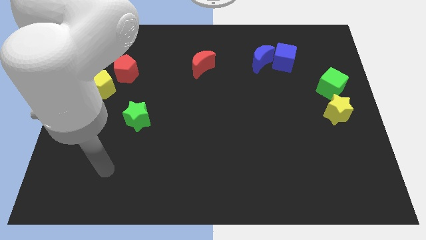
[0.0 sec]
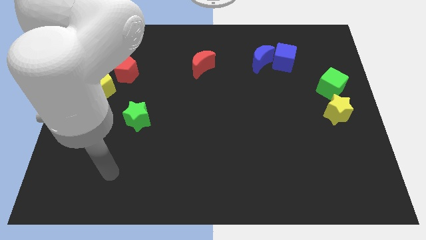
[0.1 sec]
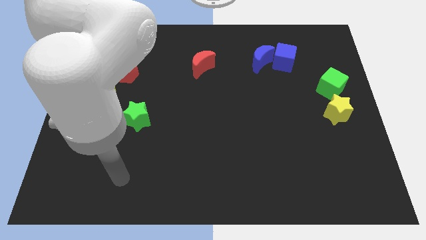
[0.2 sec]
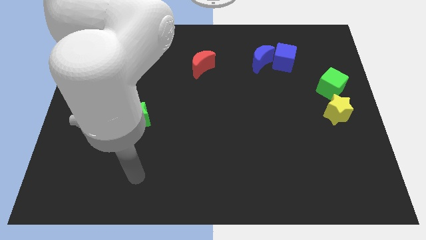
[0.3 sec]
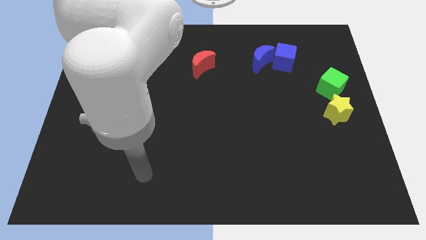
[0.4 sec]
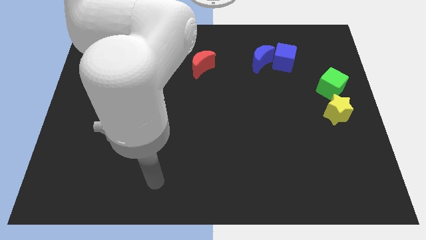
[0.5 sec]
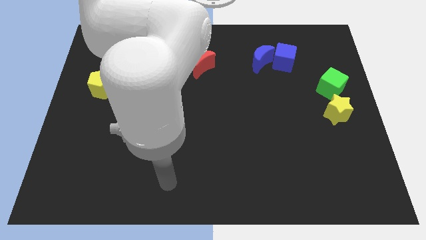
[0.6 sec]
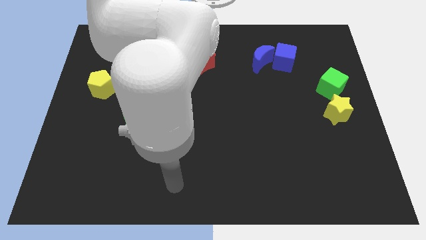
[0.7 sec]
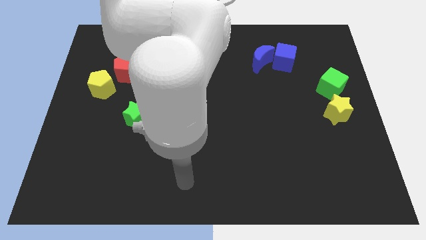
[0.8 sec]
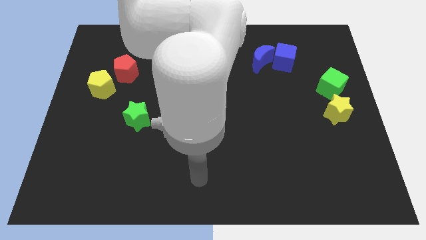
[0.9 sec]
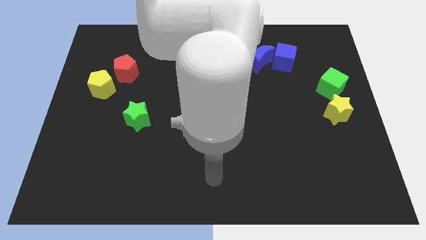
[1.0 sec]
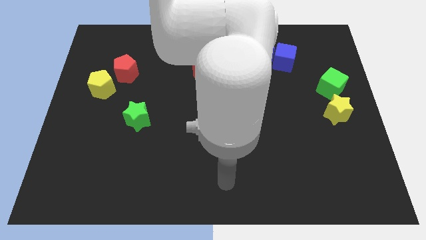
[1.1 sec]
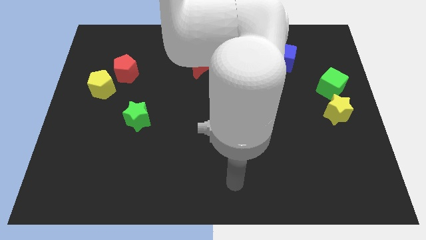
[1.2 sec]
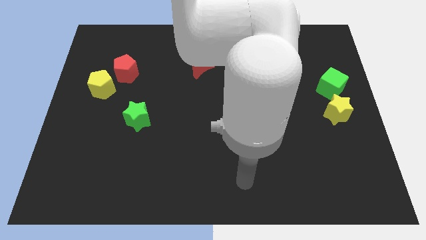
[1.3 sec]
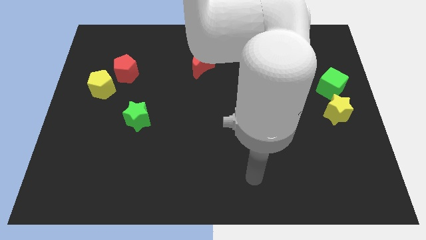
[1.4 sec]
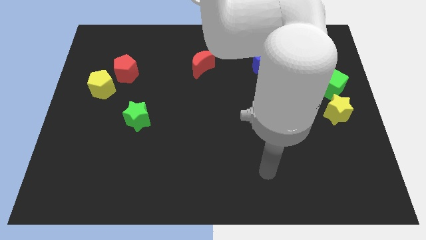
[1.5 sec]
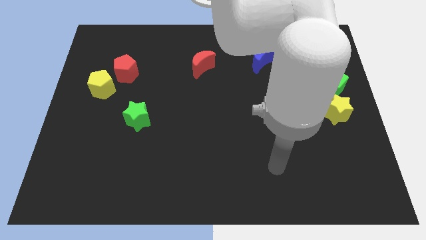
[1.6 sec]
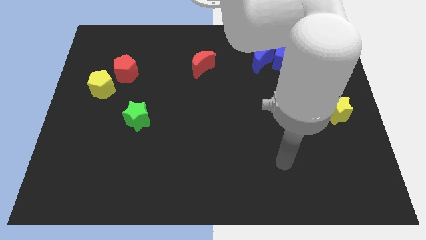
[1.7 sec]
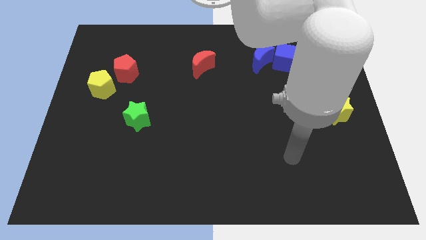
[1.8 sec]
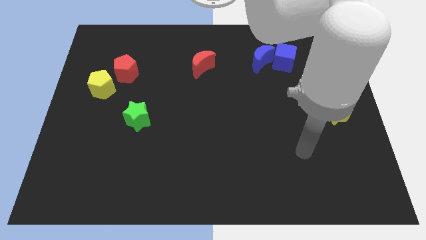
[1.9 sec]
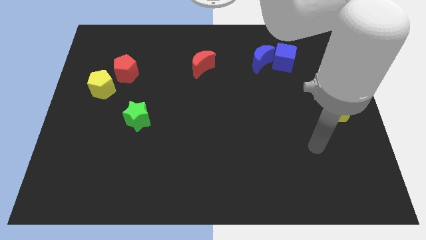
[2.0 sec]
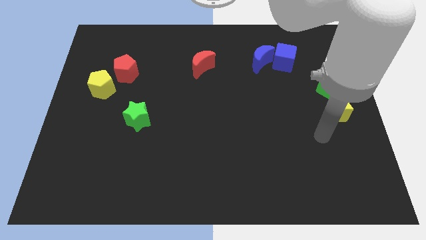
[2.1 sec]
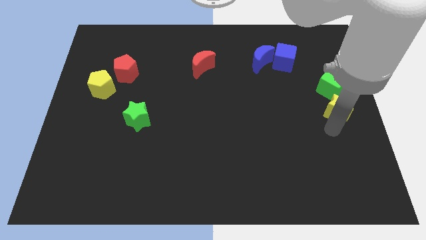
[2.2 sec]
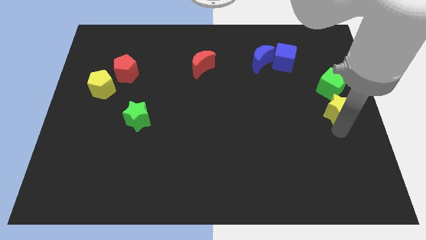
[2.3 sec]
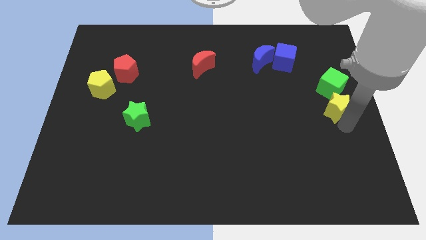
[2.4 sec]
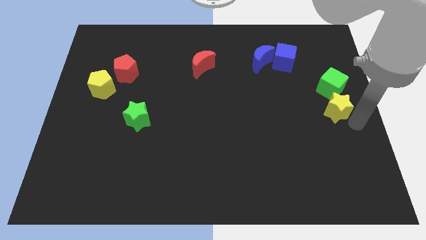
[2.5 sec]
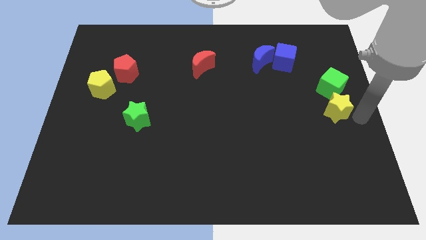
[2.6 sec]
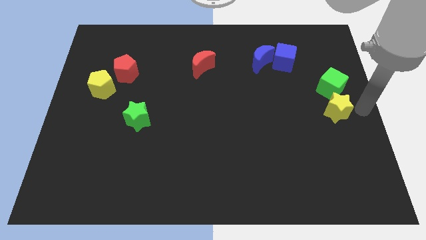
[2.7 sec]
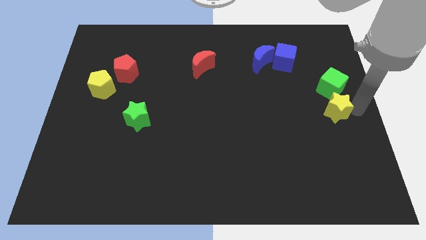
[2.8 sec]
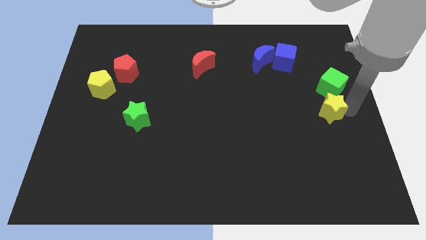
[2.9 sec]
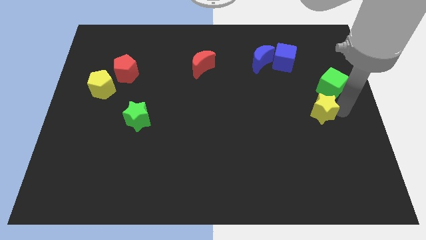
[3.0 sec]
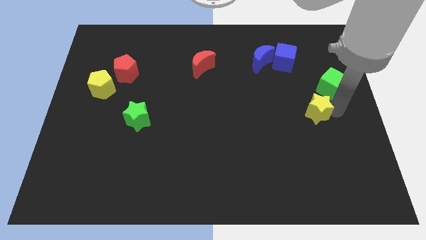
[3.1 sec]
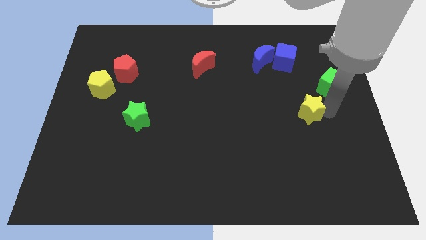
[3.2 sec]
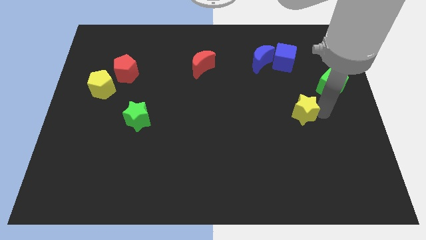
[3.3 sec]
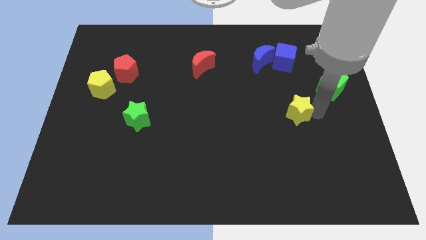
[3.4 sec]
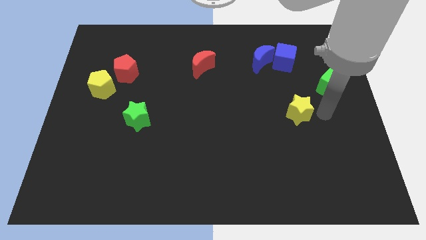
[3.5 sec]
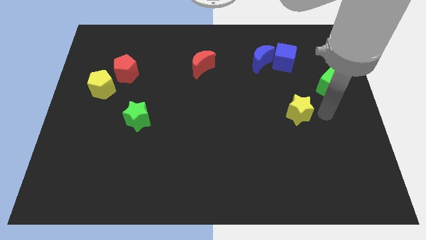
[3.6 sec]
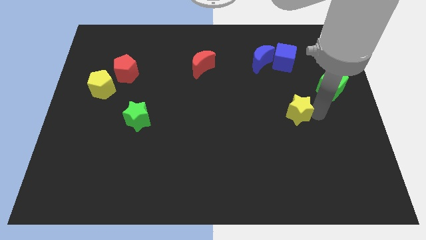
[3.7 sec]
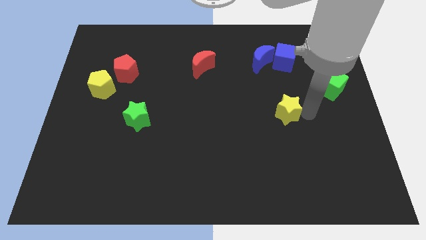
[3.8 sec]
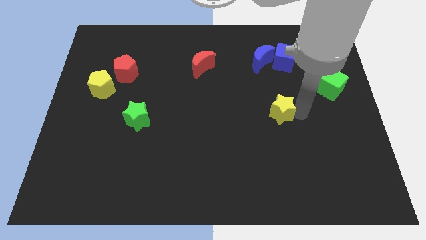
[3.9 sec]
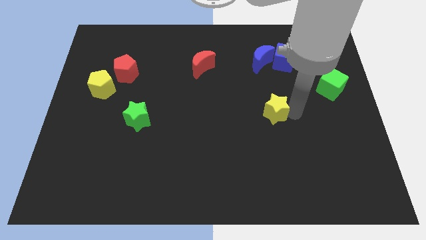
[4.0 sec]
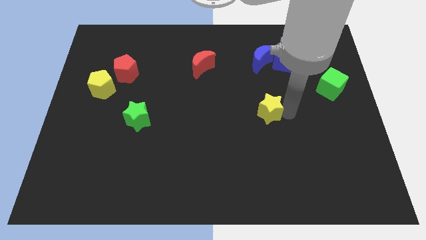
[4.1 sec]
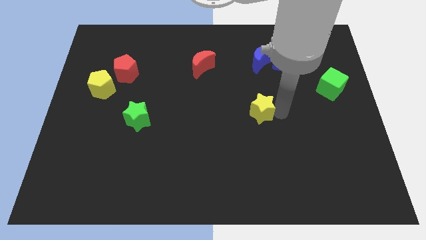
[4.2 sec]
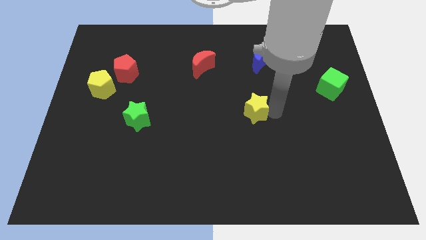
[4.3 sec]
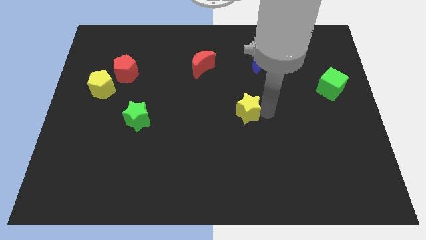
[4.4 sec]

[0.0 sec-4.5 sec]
push the yellow star left

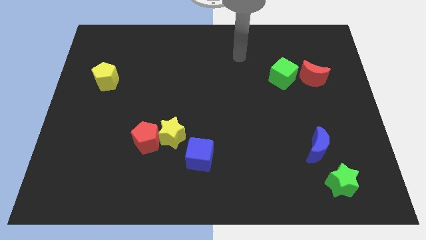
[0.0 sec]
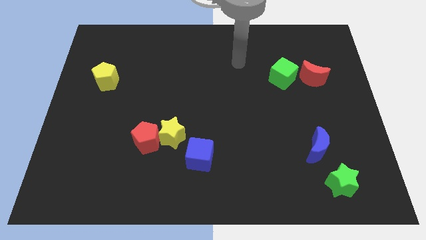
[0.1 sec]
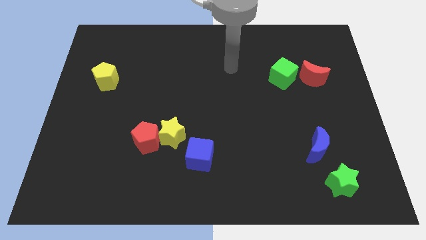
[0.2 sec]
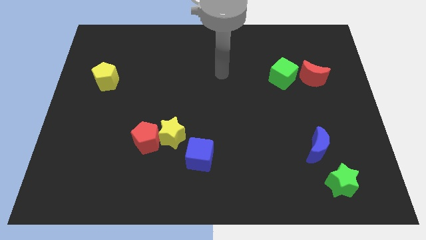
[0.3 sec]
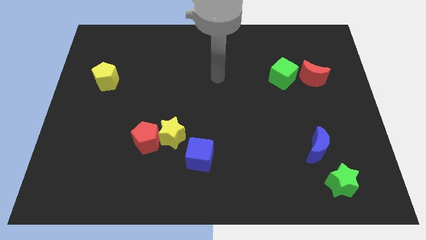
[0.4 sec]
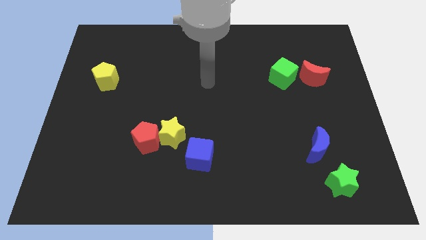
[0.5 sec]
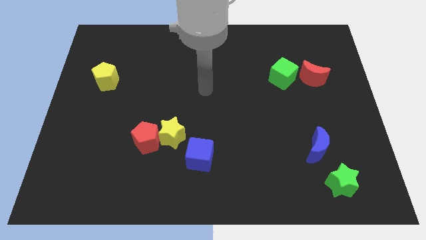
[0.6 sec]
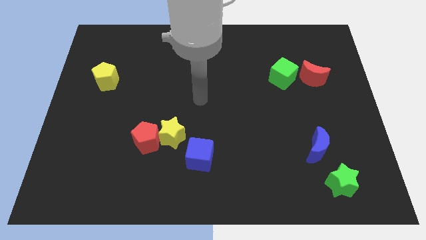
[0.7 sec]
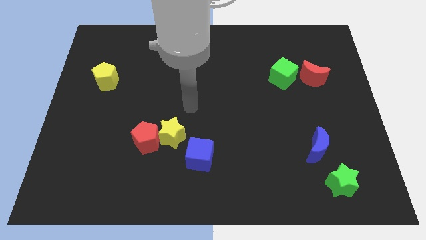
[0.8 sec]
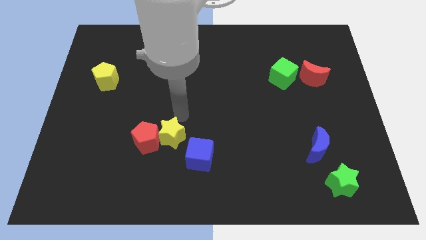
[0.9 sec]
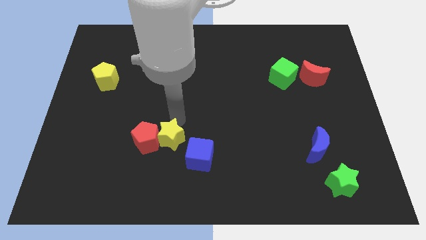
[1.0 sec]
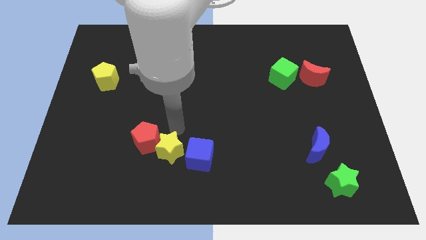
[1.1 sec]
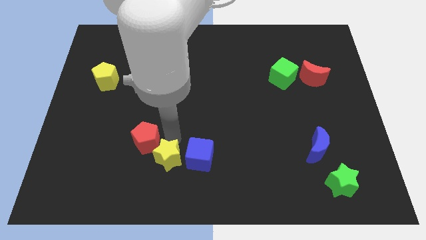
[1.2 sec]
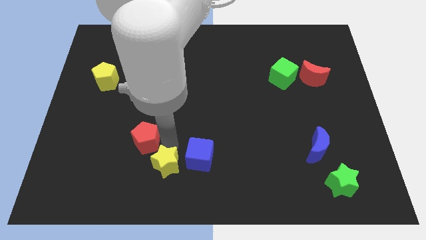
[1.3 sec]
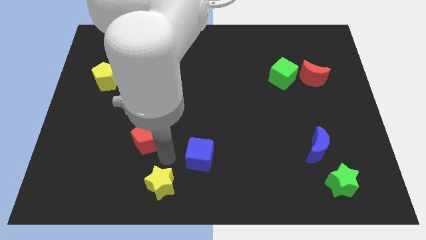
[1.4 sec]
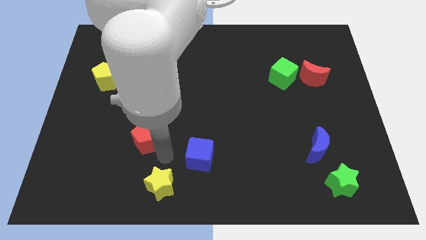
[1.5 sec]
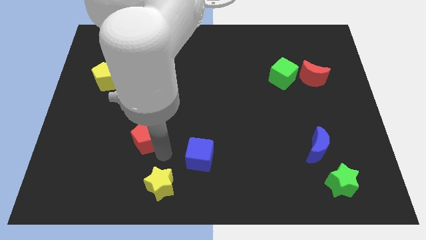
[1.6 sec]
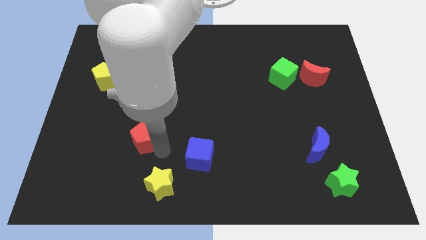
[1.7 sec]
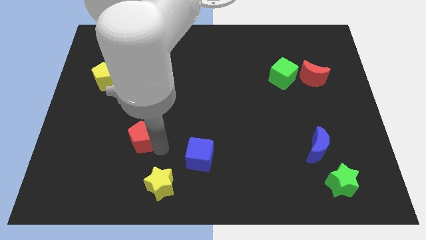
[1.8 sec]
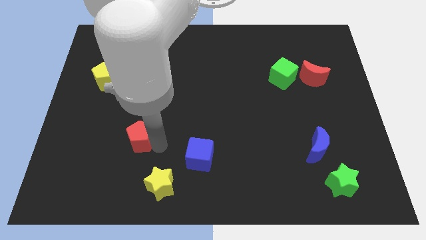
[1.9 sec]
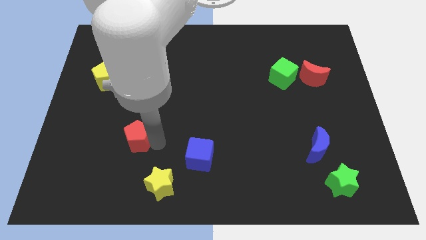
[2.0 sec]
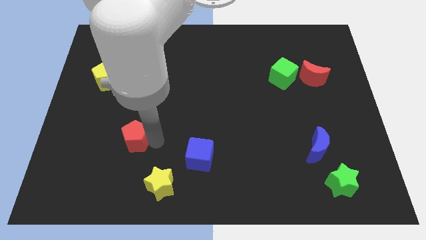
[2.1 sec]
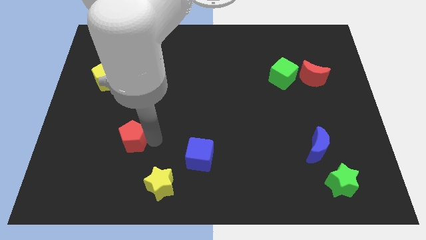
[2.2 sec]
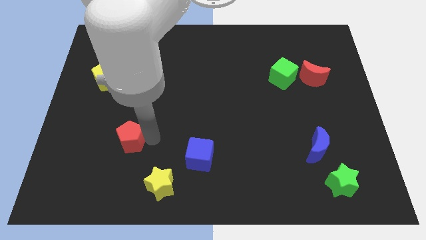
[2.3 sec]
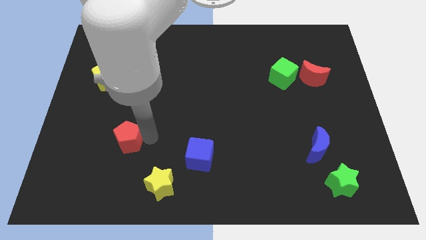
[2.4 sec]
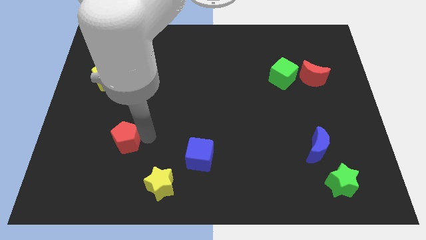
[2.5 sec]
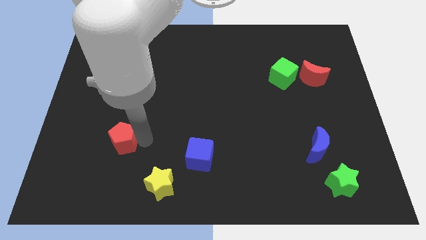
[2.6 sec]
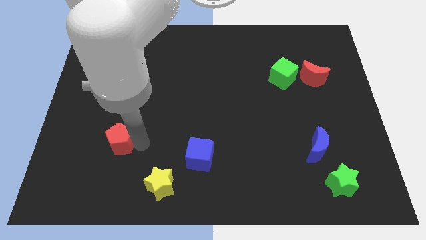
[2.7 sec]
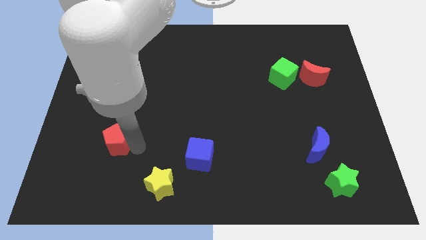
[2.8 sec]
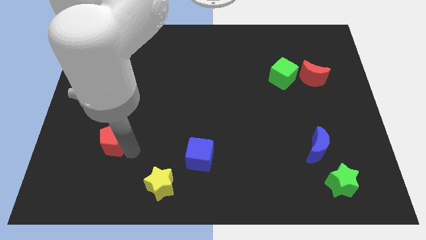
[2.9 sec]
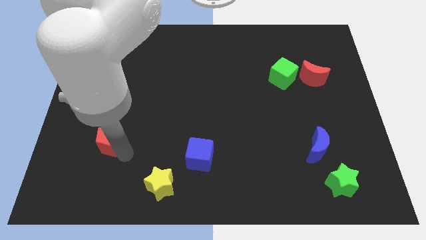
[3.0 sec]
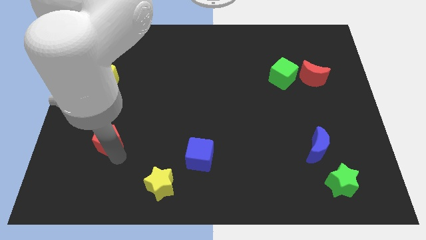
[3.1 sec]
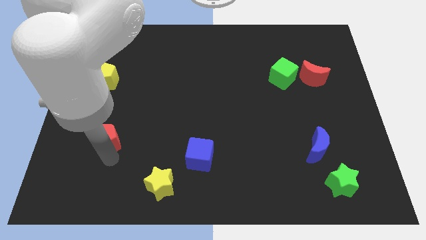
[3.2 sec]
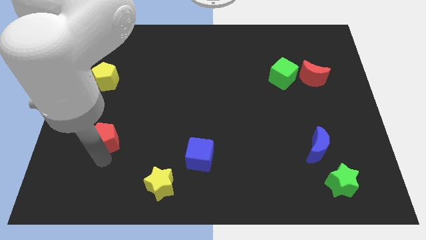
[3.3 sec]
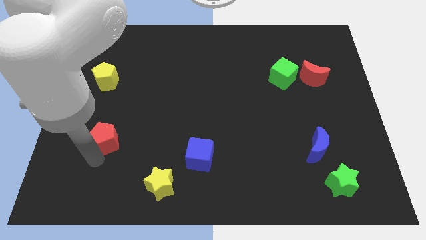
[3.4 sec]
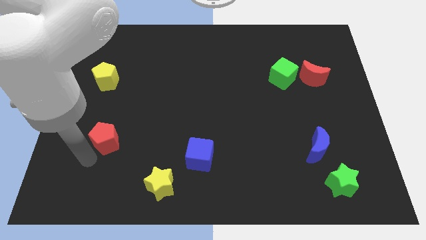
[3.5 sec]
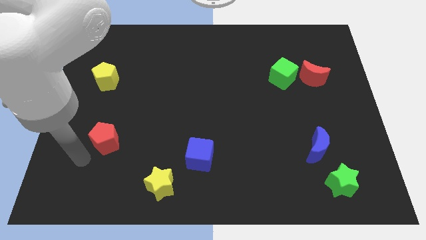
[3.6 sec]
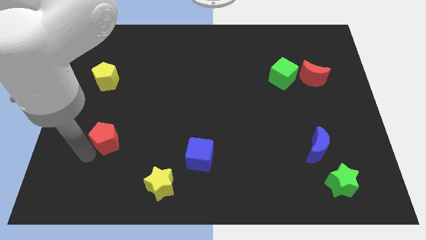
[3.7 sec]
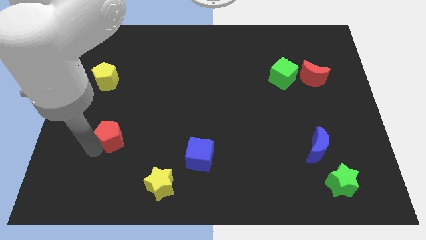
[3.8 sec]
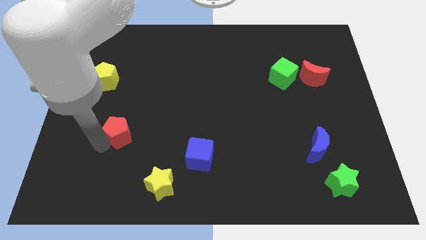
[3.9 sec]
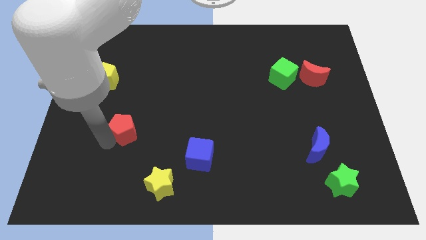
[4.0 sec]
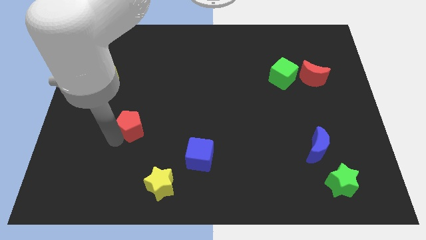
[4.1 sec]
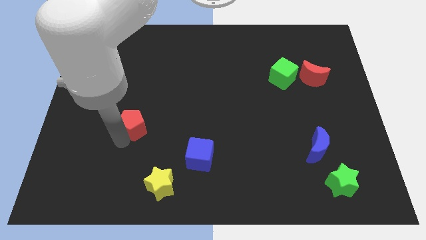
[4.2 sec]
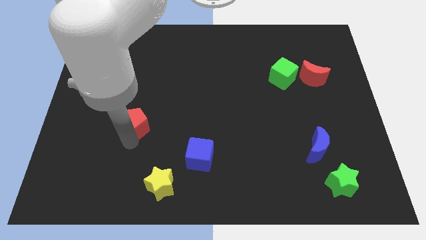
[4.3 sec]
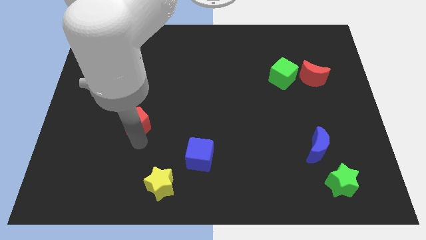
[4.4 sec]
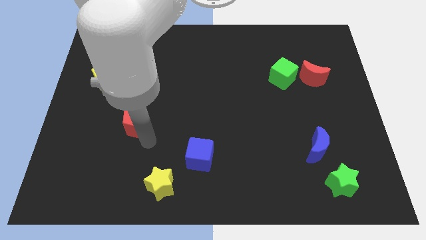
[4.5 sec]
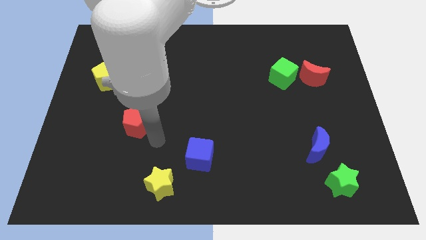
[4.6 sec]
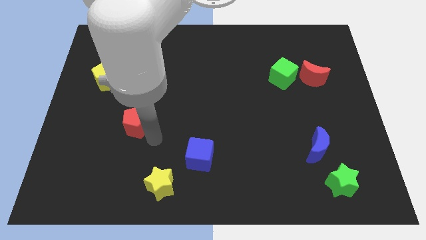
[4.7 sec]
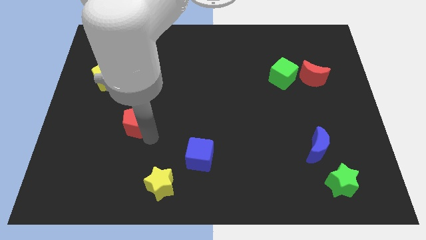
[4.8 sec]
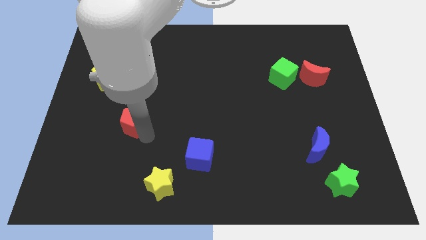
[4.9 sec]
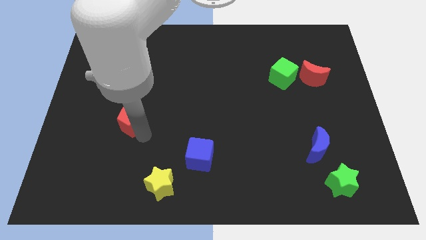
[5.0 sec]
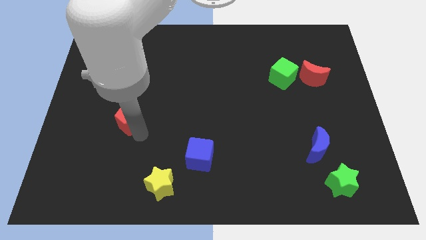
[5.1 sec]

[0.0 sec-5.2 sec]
slightly slide the red pentagon up and left
